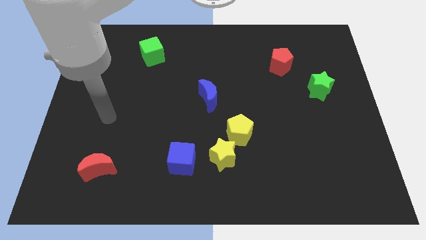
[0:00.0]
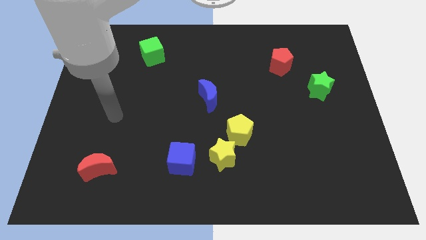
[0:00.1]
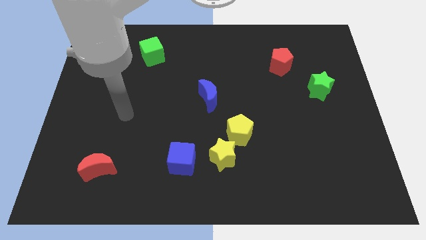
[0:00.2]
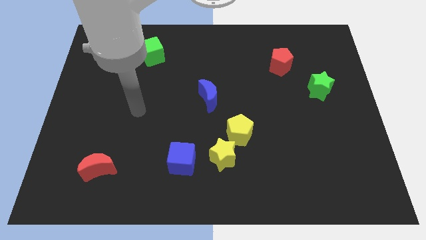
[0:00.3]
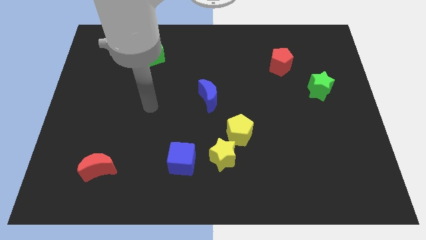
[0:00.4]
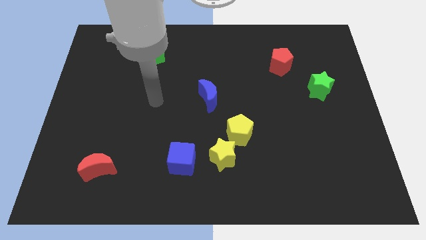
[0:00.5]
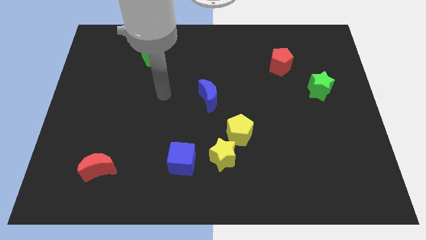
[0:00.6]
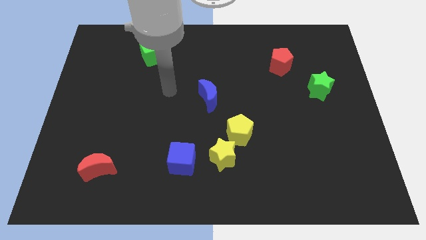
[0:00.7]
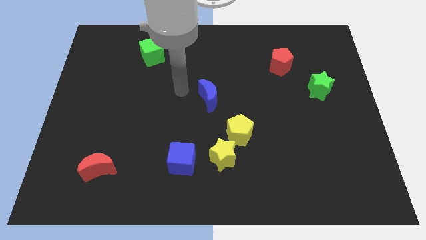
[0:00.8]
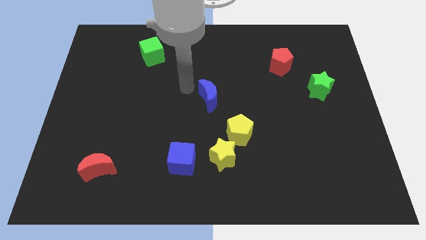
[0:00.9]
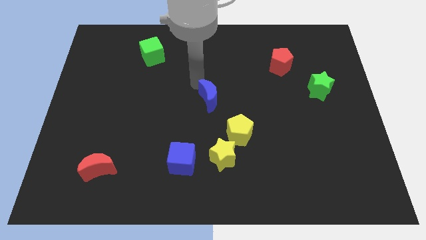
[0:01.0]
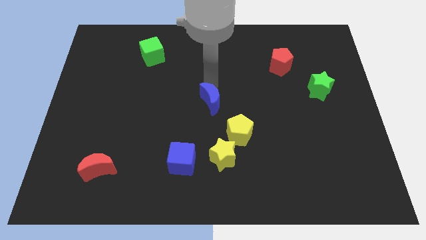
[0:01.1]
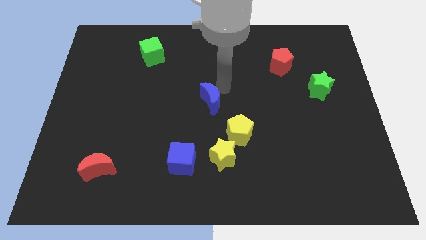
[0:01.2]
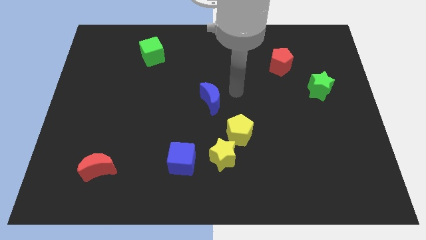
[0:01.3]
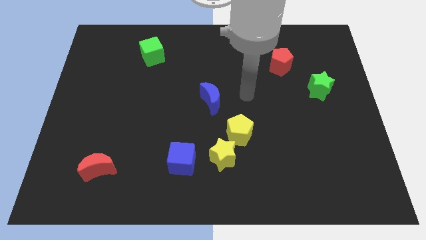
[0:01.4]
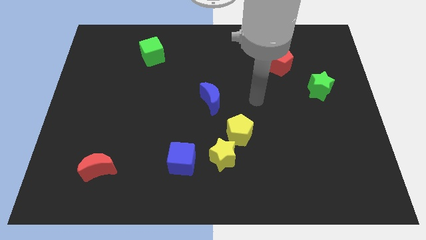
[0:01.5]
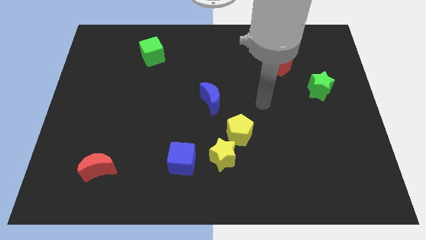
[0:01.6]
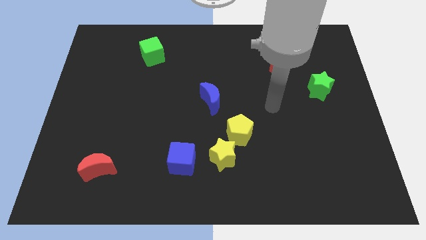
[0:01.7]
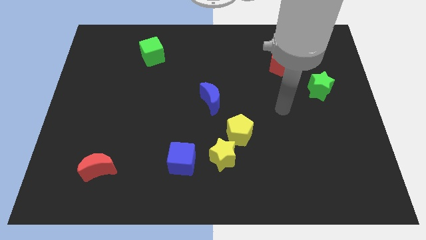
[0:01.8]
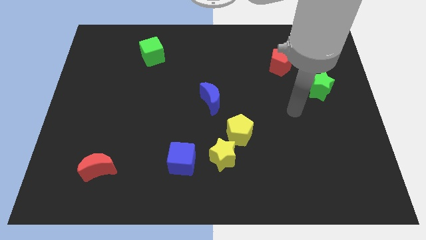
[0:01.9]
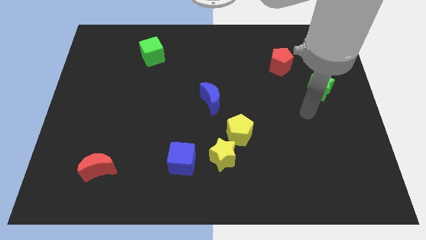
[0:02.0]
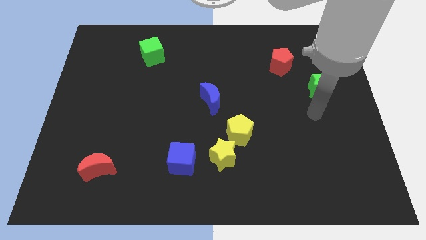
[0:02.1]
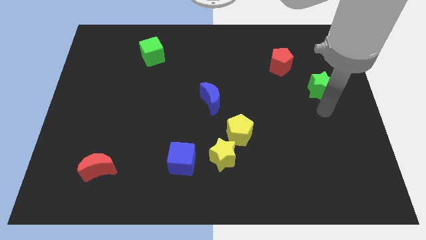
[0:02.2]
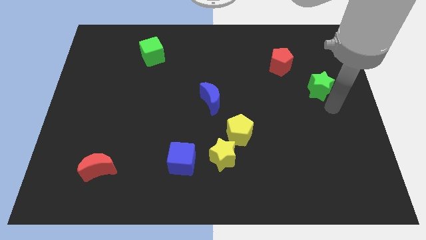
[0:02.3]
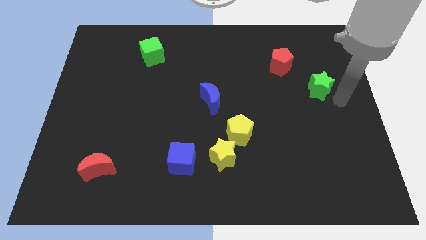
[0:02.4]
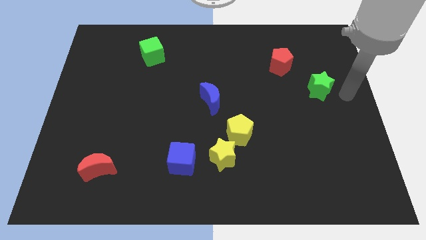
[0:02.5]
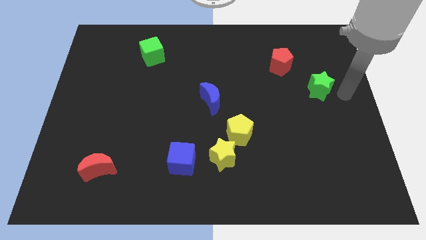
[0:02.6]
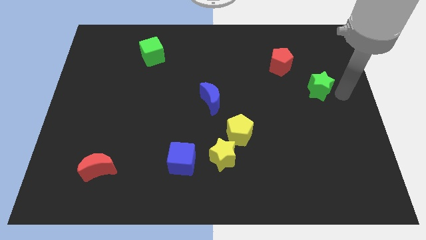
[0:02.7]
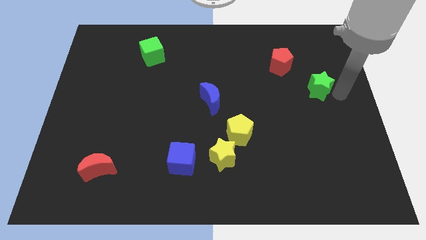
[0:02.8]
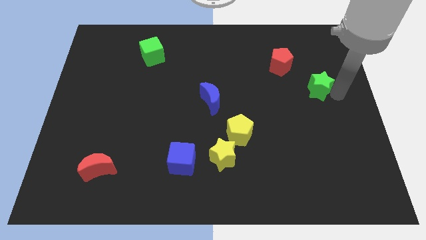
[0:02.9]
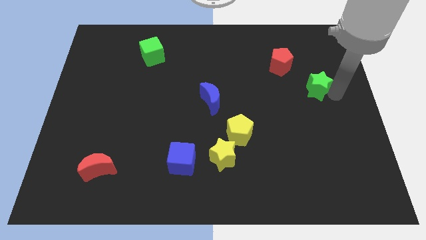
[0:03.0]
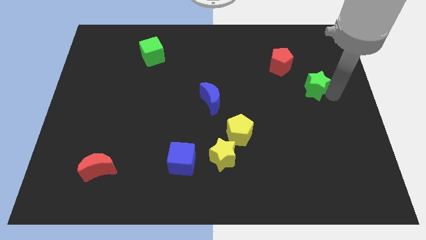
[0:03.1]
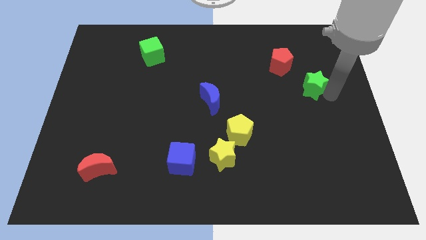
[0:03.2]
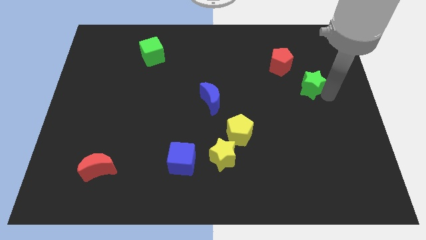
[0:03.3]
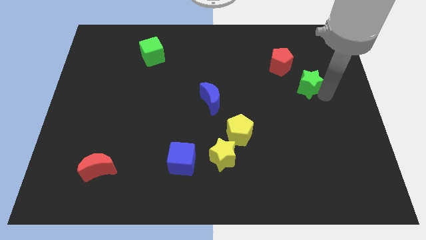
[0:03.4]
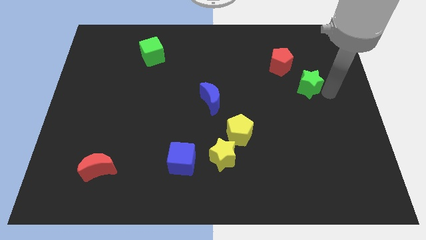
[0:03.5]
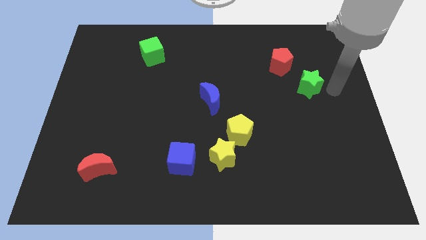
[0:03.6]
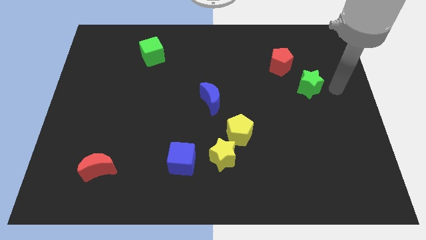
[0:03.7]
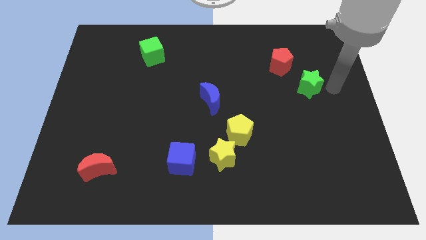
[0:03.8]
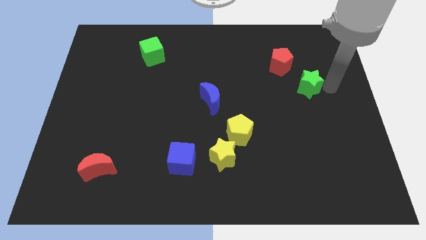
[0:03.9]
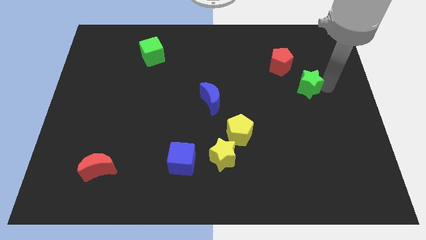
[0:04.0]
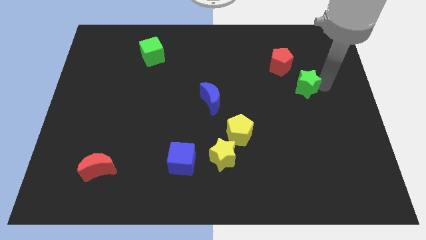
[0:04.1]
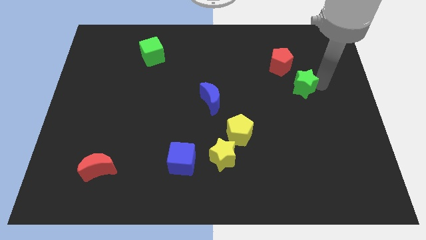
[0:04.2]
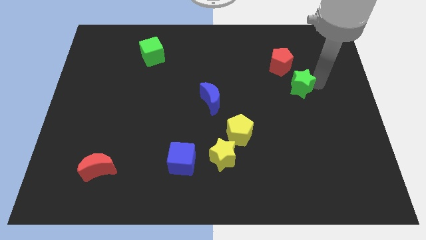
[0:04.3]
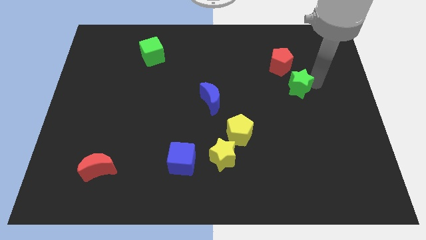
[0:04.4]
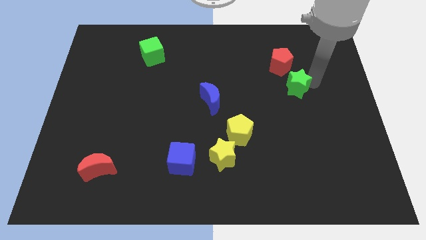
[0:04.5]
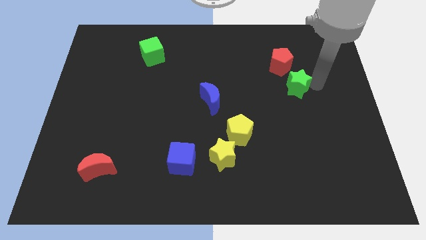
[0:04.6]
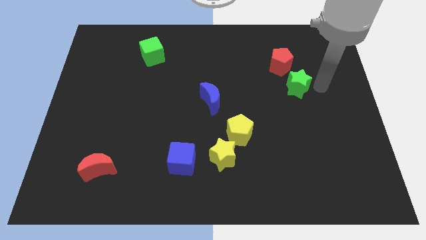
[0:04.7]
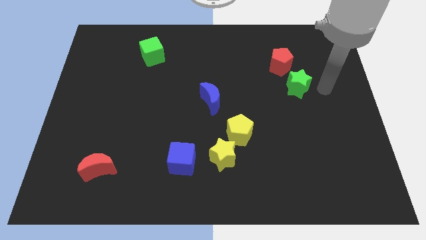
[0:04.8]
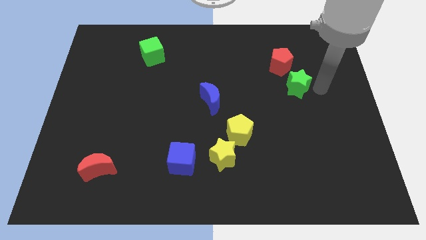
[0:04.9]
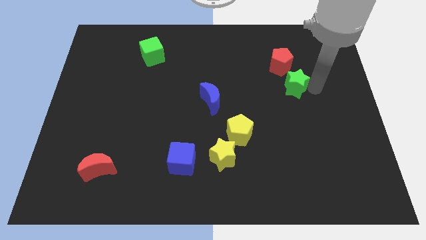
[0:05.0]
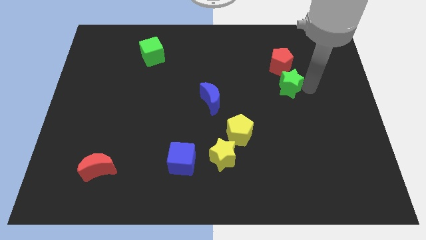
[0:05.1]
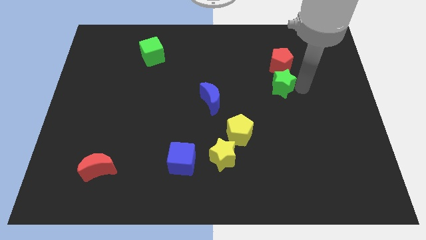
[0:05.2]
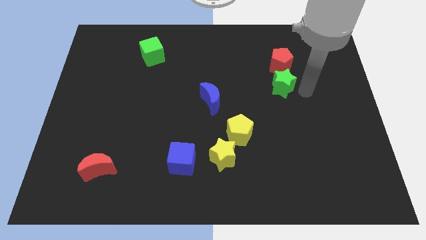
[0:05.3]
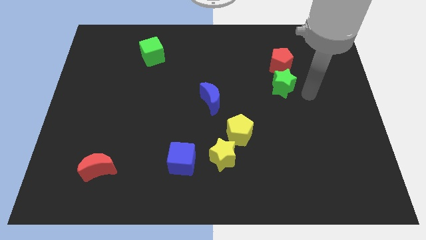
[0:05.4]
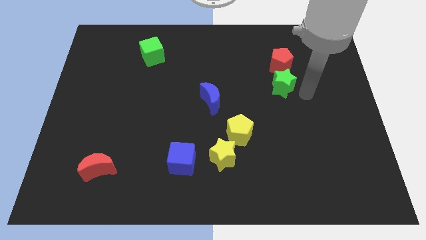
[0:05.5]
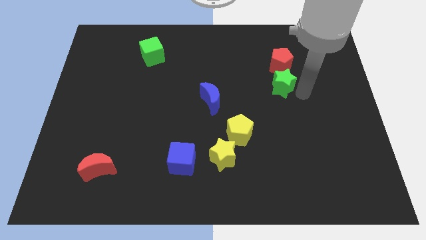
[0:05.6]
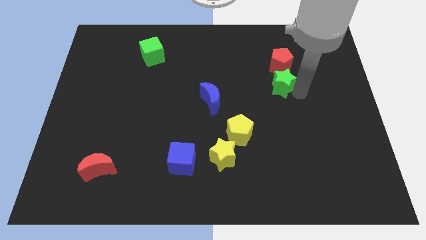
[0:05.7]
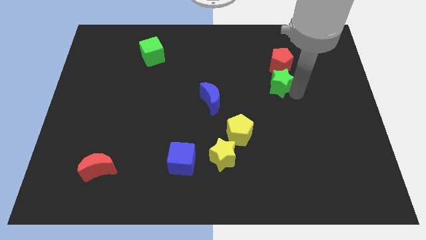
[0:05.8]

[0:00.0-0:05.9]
put the green star diagonally down and to the left of the red pentagon
